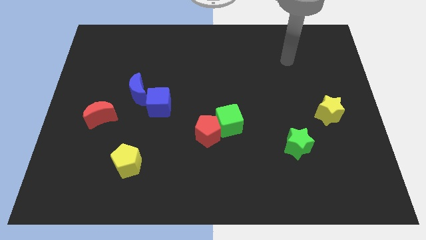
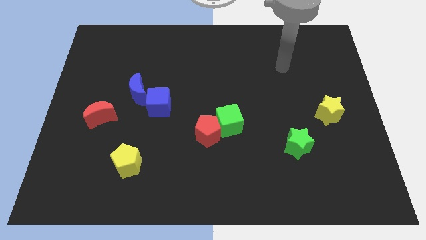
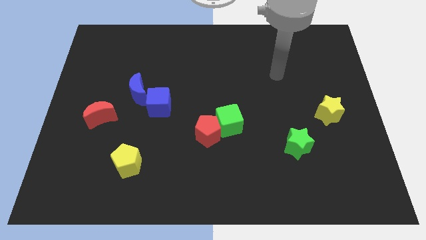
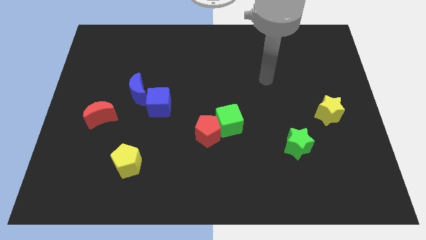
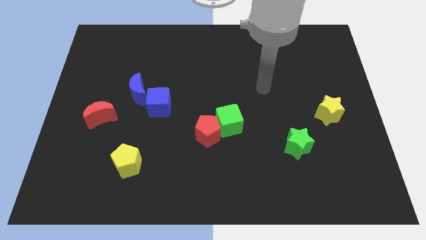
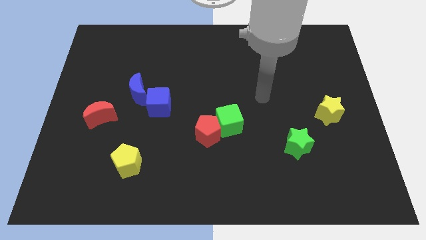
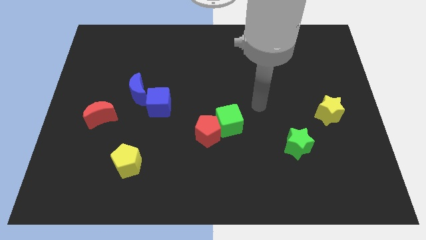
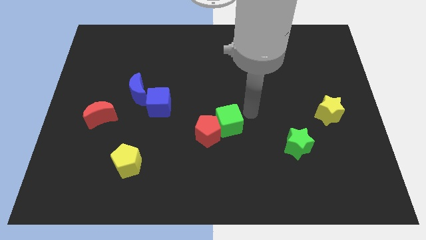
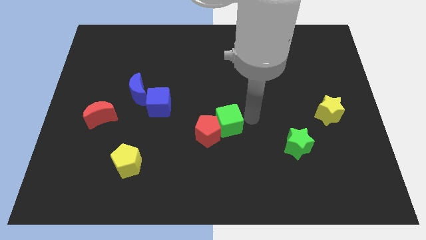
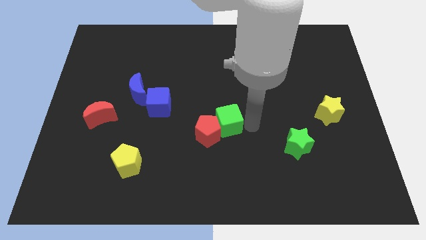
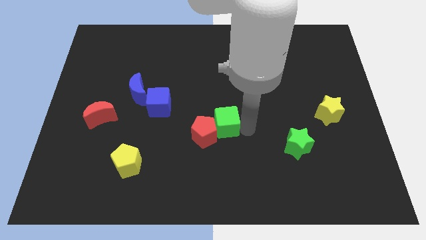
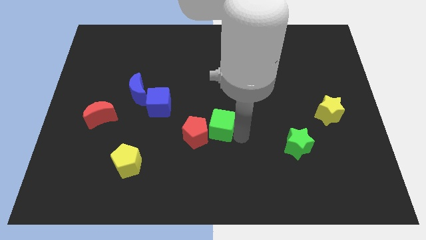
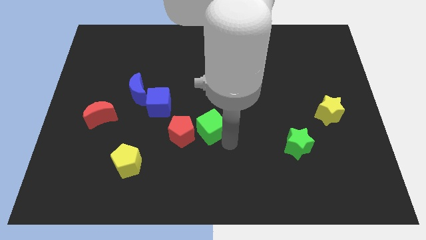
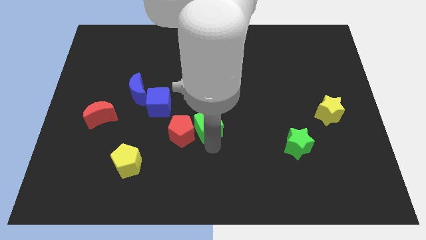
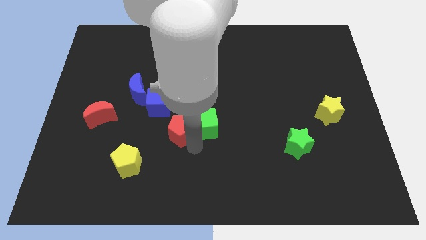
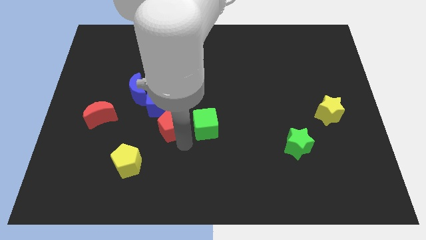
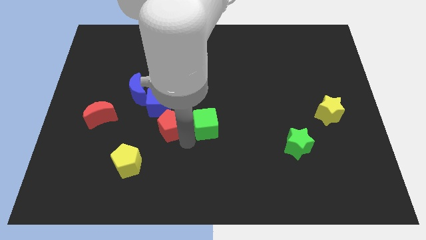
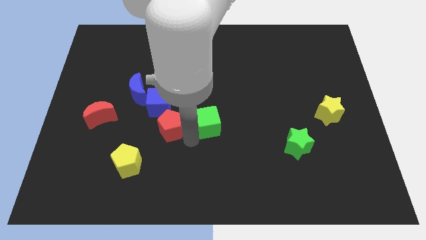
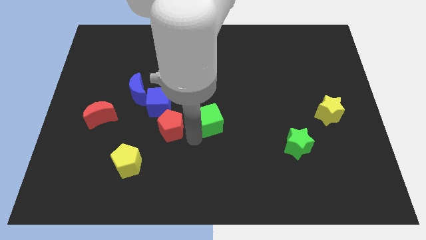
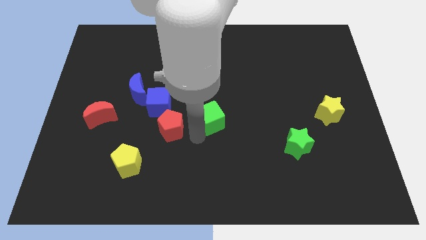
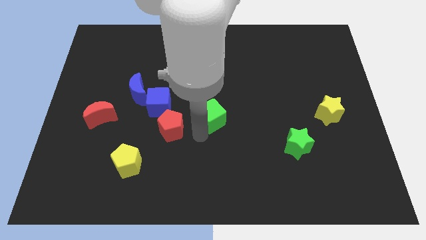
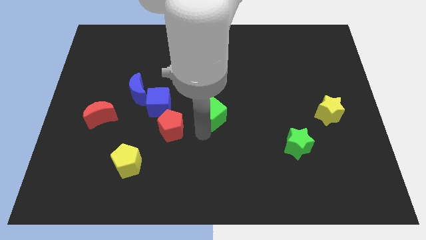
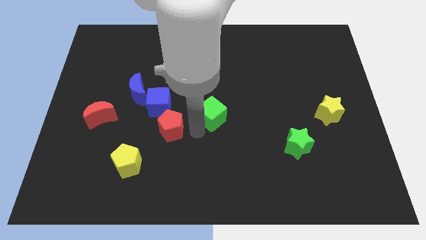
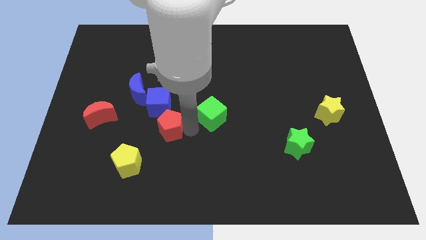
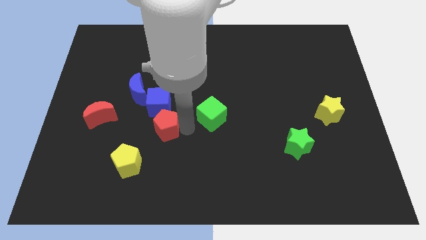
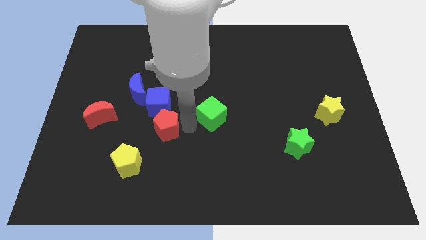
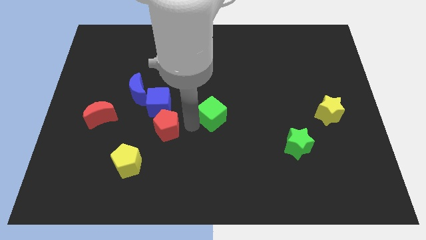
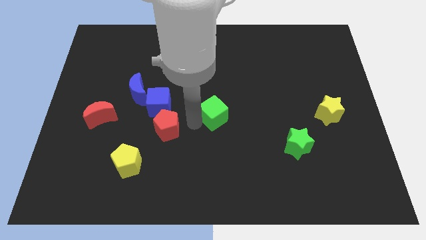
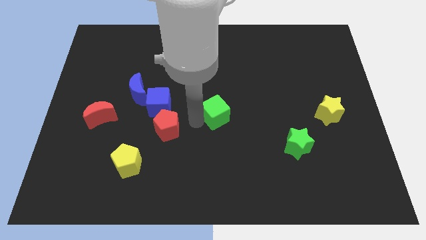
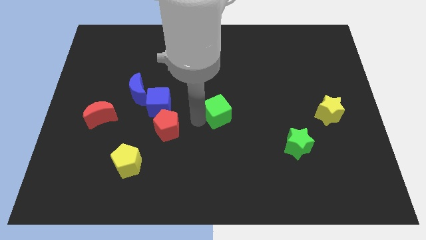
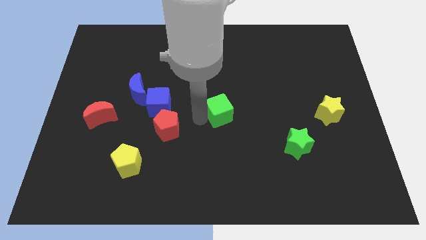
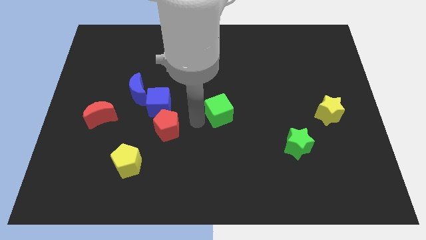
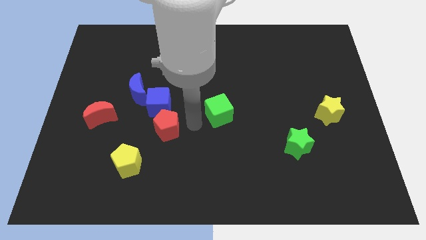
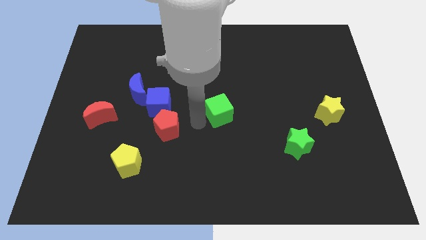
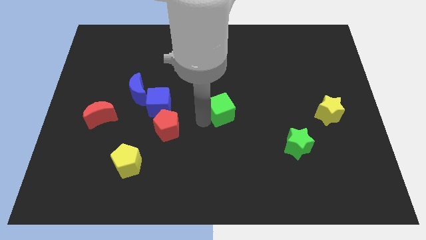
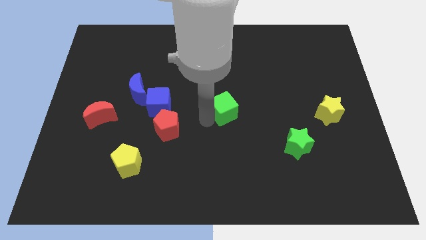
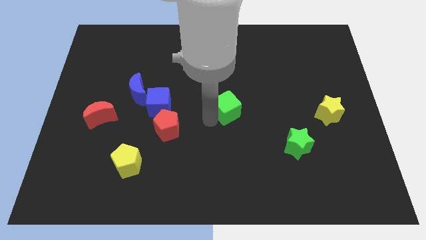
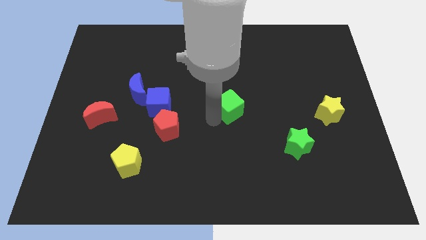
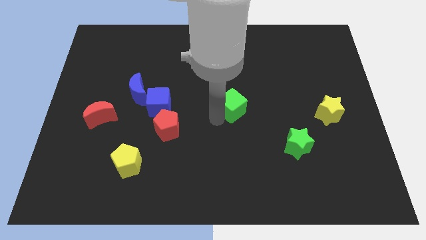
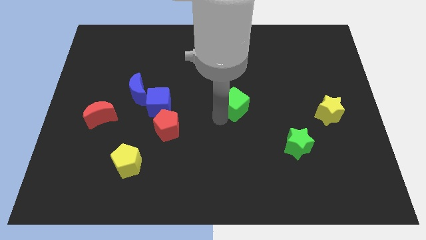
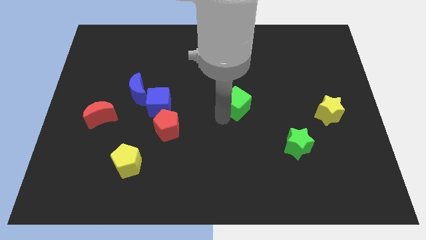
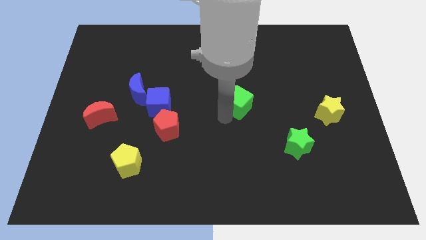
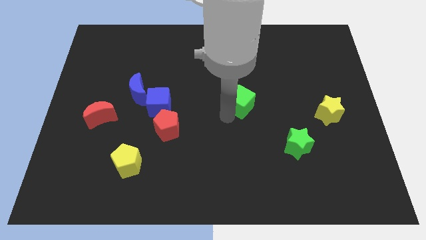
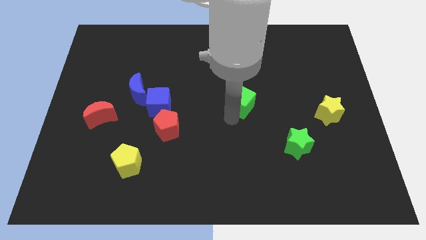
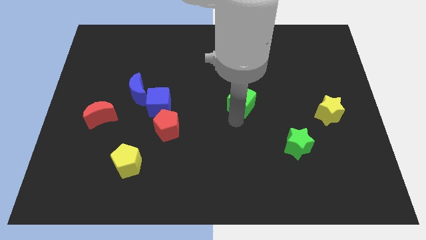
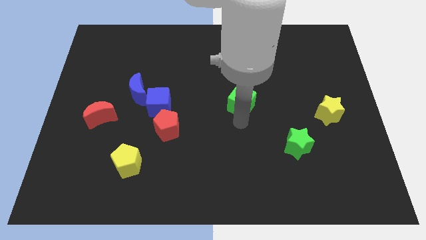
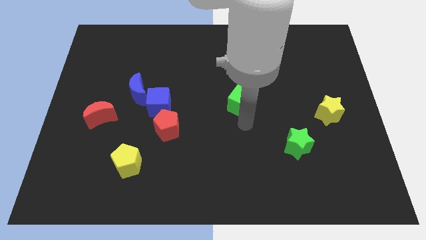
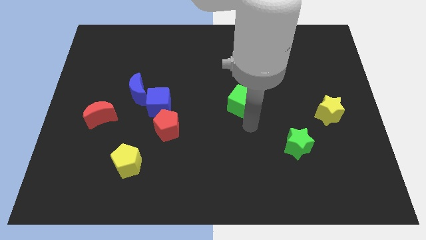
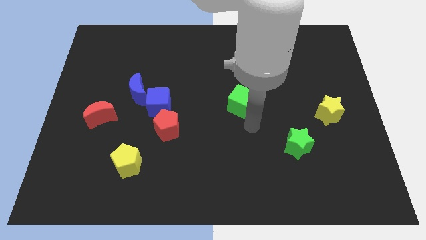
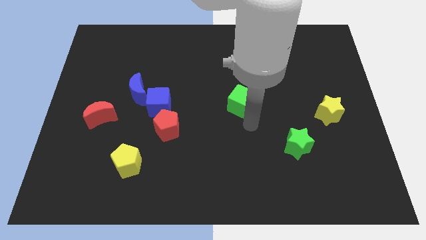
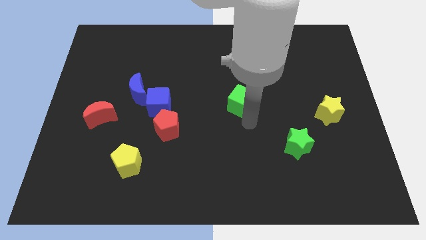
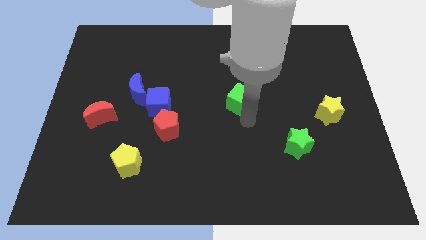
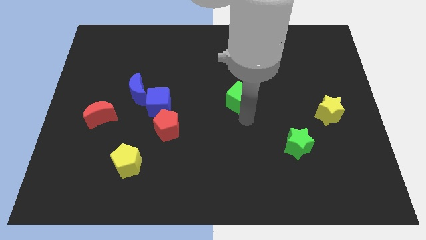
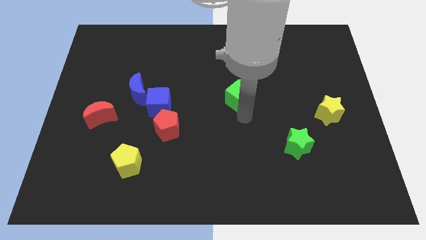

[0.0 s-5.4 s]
slightly move the green cube up

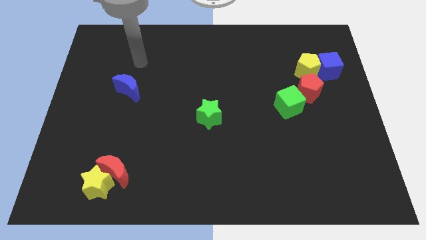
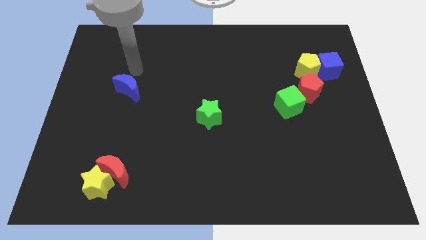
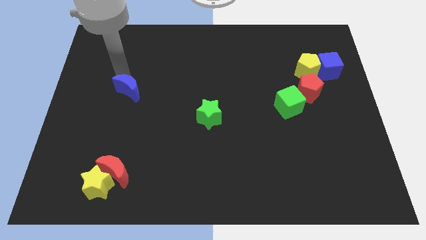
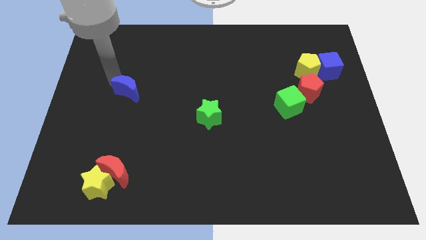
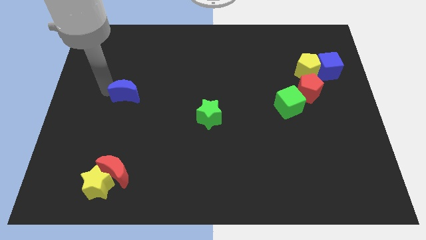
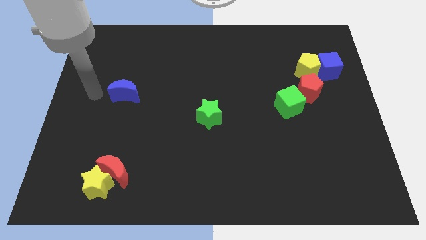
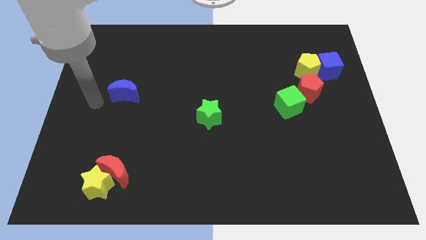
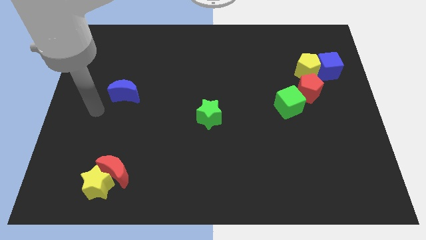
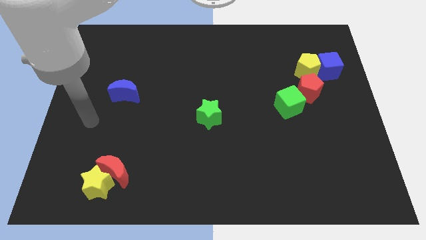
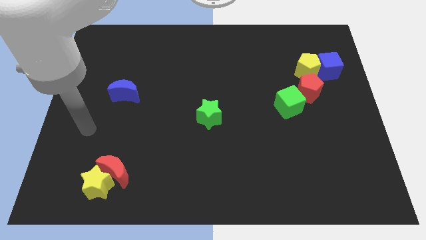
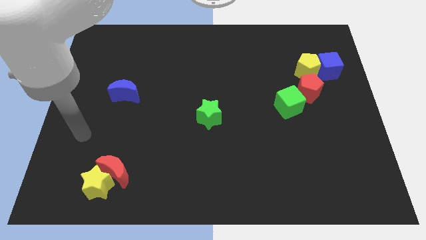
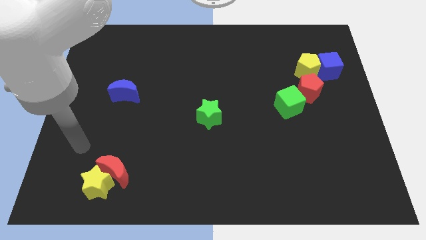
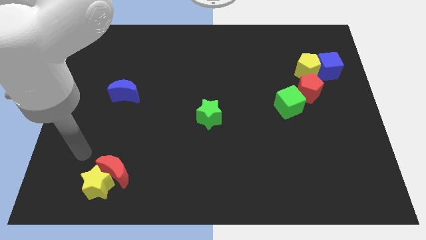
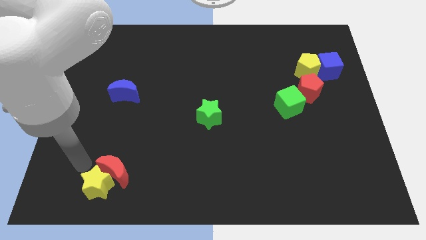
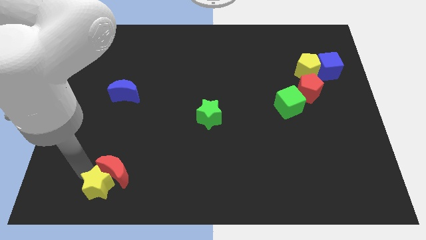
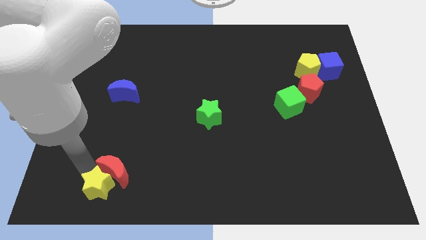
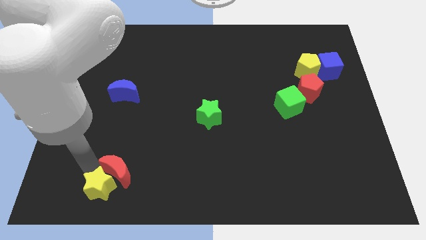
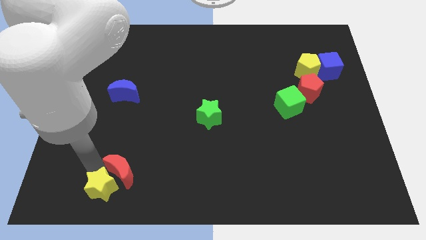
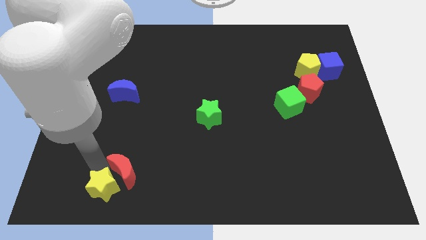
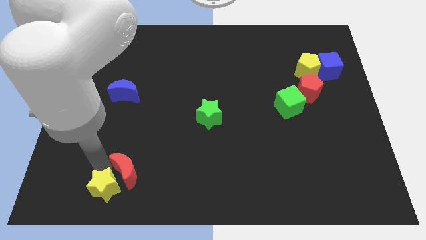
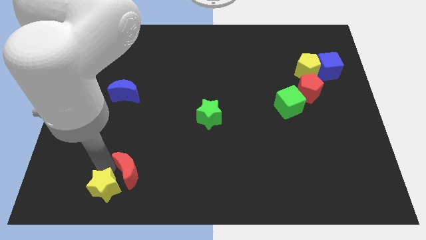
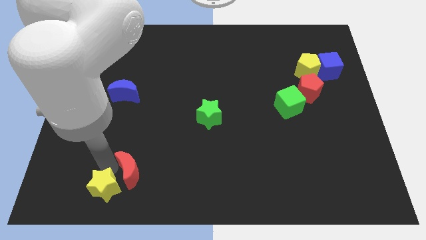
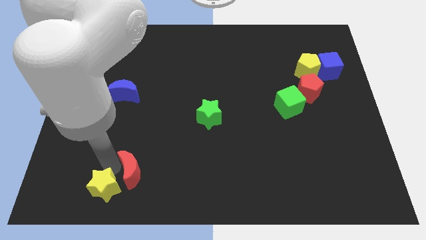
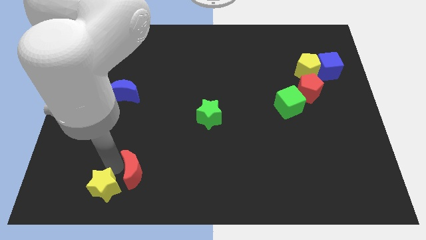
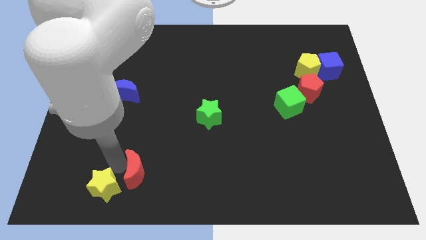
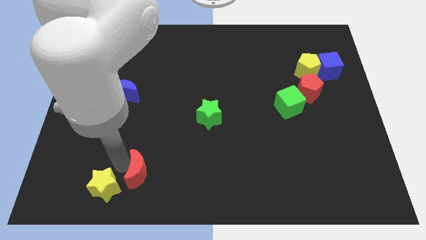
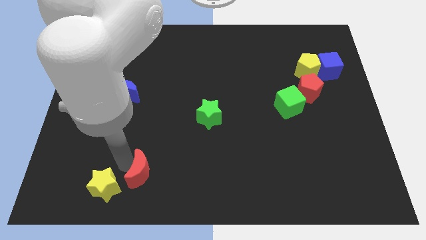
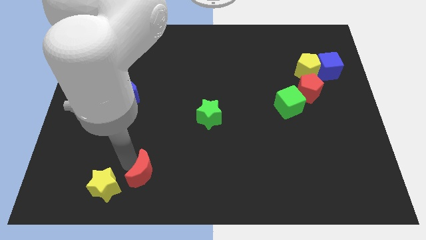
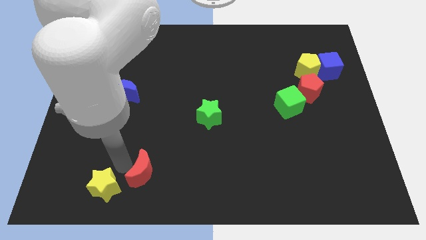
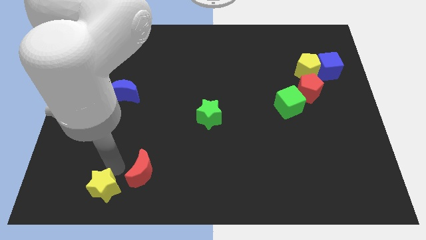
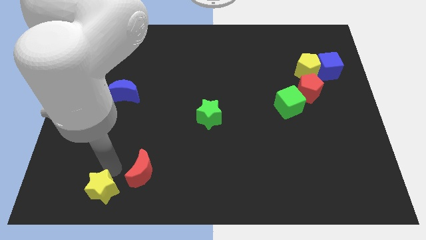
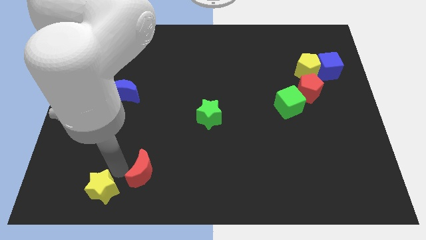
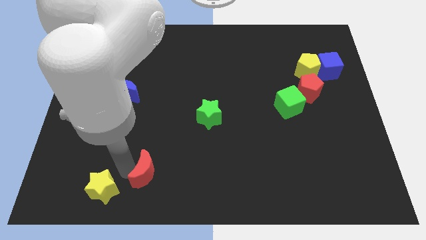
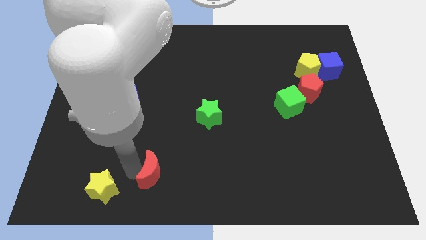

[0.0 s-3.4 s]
push the red moon somewhat right
